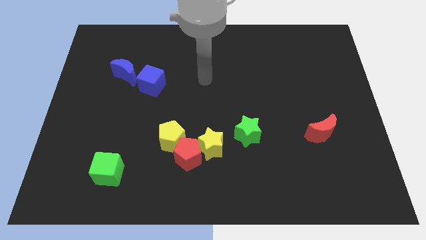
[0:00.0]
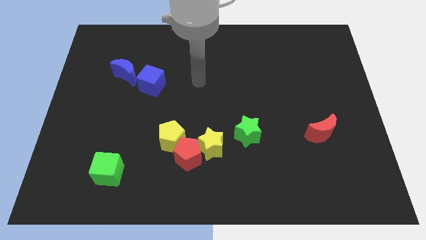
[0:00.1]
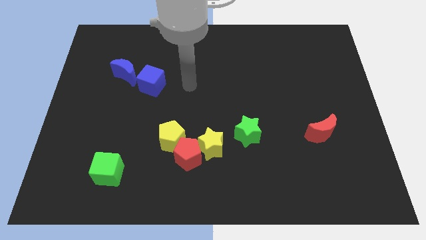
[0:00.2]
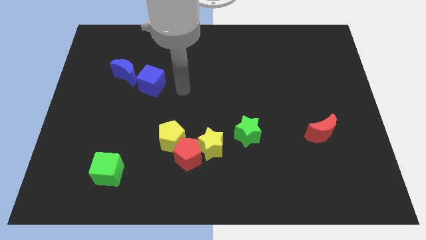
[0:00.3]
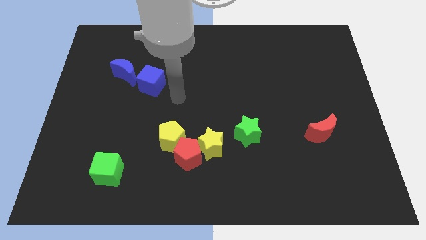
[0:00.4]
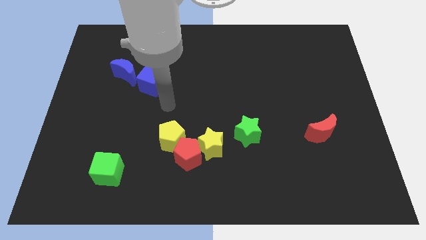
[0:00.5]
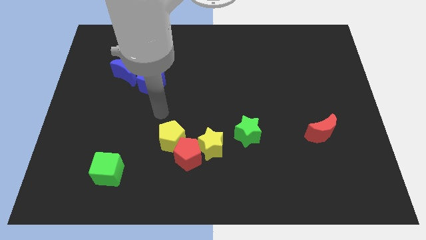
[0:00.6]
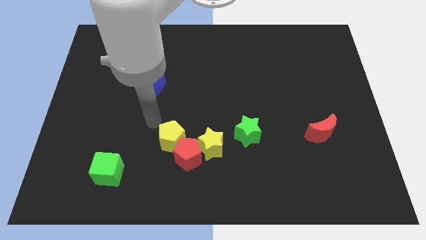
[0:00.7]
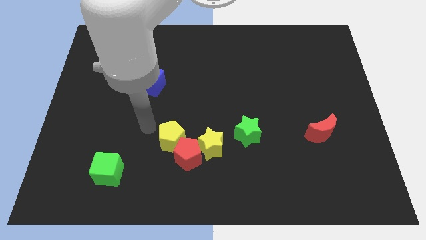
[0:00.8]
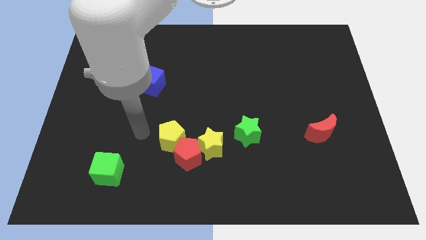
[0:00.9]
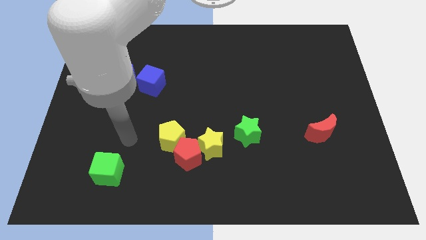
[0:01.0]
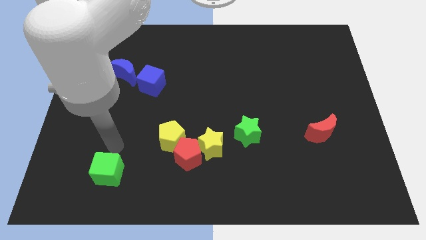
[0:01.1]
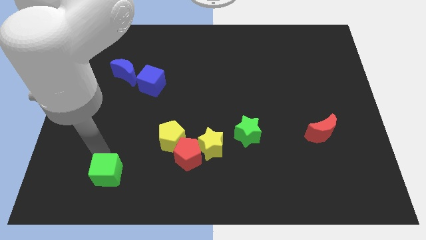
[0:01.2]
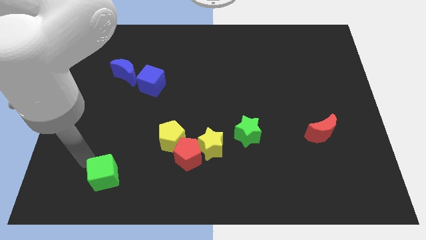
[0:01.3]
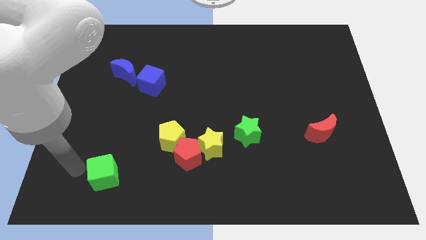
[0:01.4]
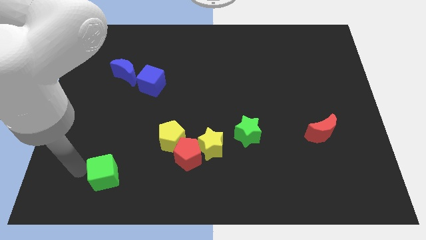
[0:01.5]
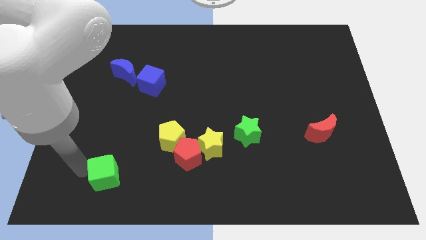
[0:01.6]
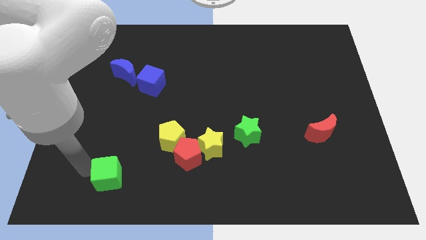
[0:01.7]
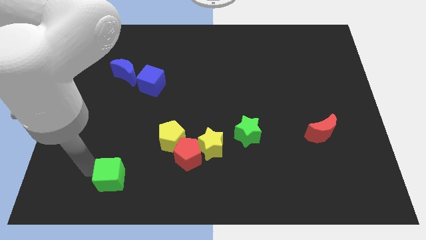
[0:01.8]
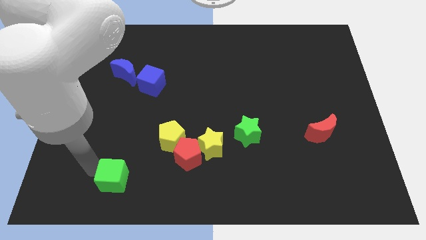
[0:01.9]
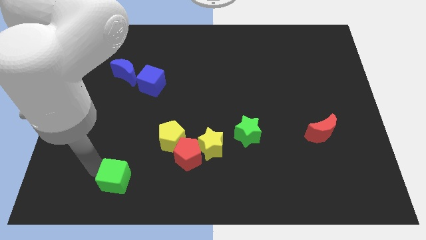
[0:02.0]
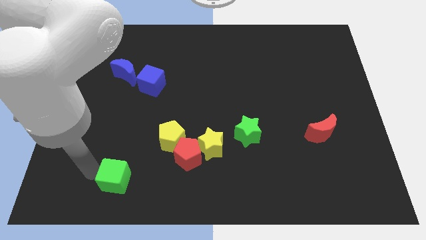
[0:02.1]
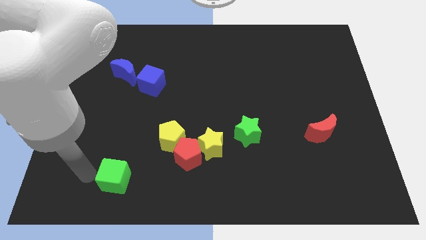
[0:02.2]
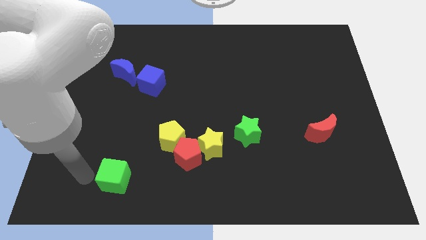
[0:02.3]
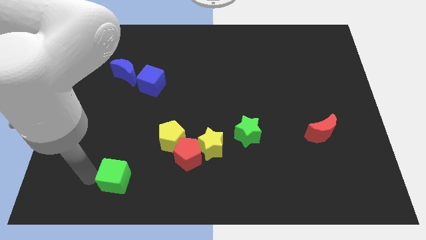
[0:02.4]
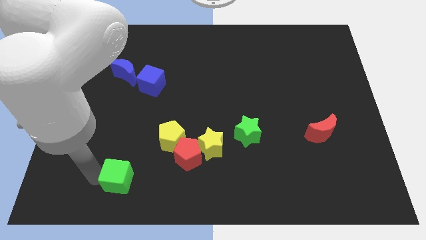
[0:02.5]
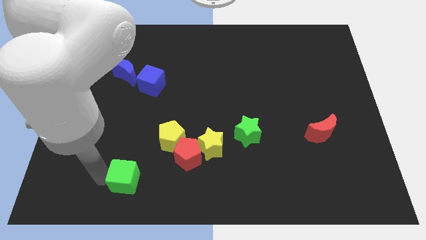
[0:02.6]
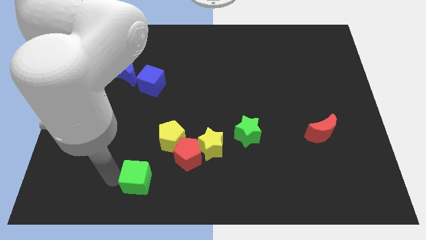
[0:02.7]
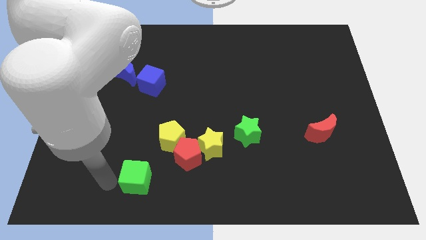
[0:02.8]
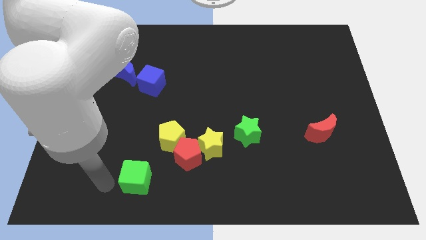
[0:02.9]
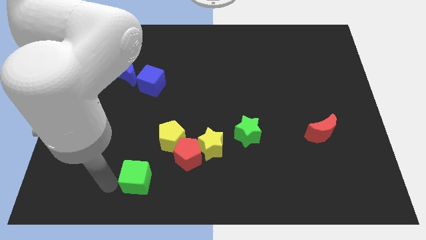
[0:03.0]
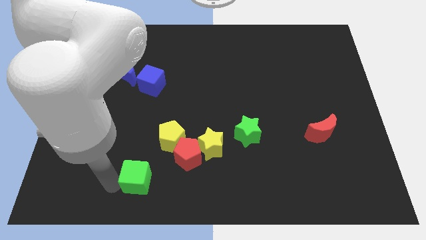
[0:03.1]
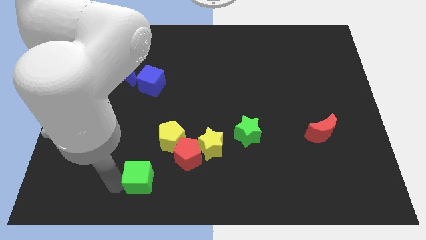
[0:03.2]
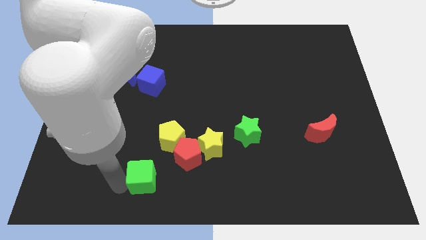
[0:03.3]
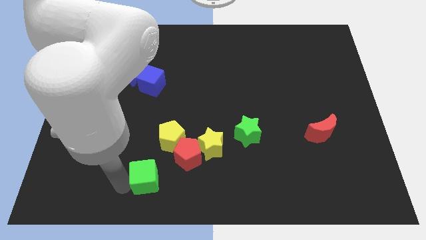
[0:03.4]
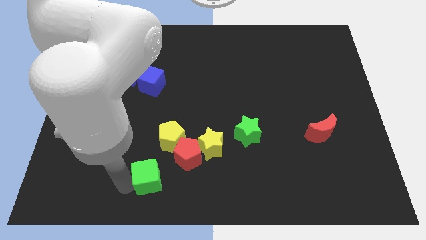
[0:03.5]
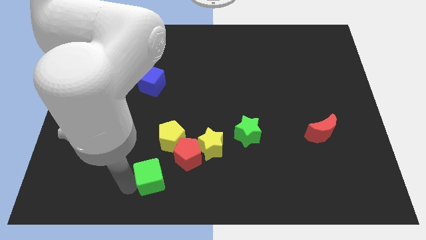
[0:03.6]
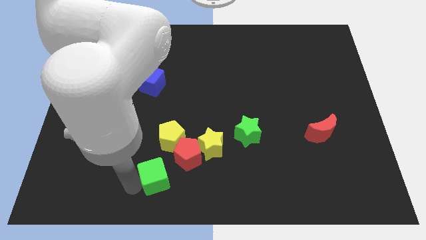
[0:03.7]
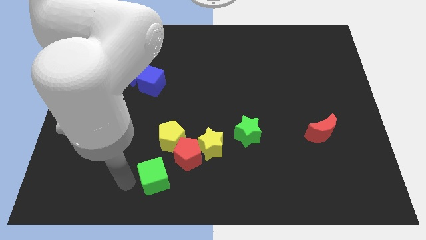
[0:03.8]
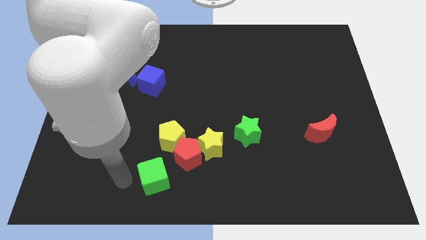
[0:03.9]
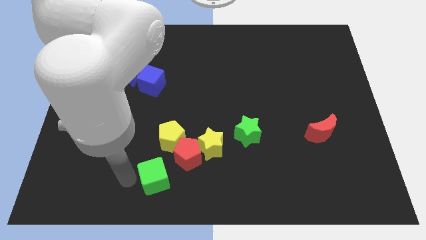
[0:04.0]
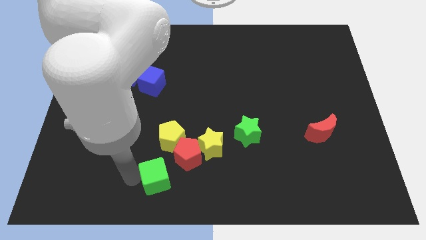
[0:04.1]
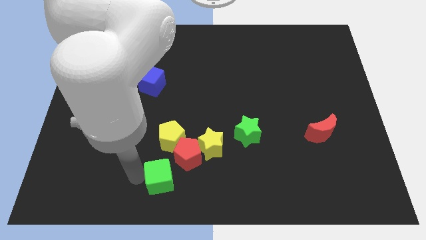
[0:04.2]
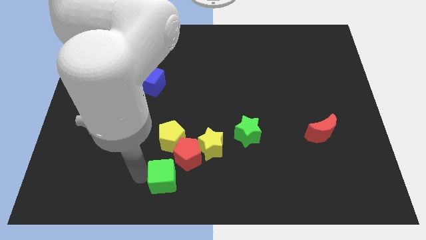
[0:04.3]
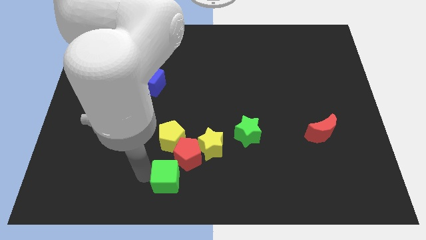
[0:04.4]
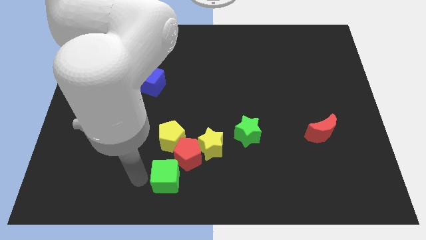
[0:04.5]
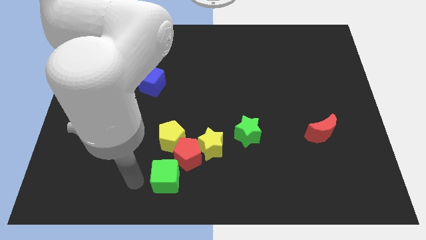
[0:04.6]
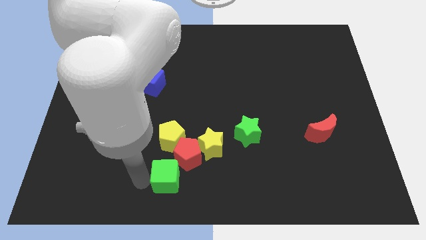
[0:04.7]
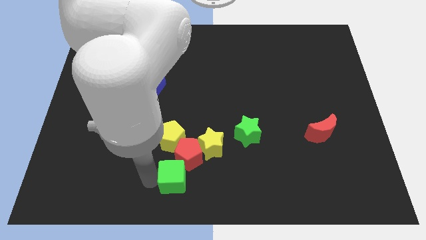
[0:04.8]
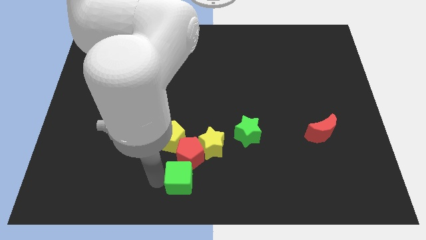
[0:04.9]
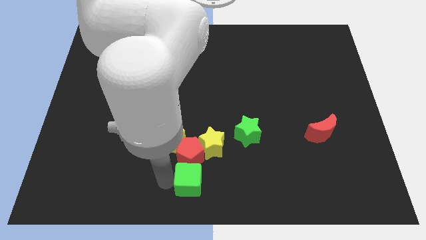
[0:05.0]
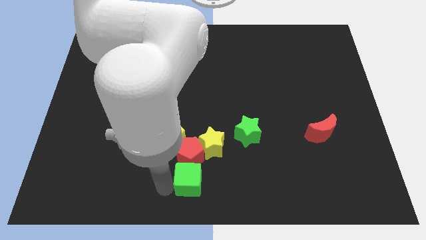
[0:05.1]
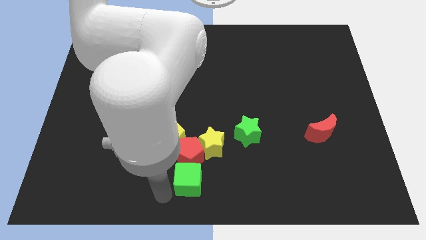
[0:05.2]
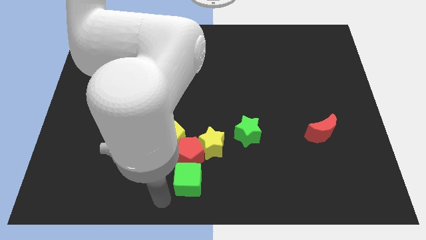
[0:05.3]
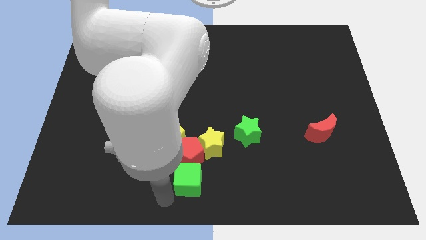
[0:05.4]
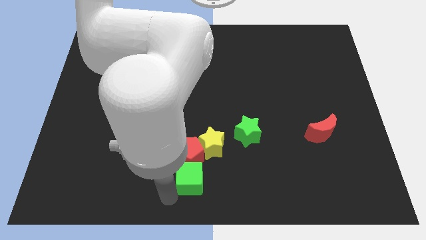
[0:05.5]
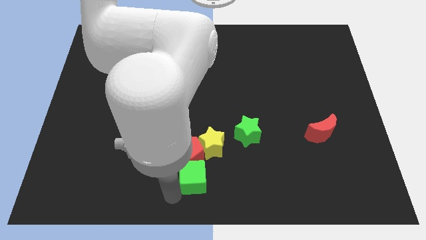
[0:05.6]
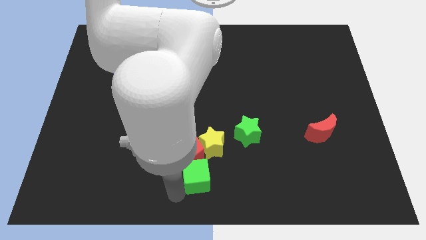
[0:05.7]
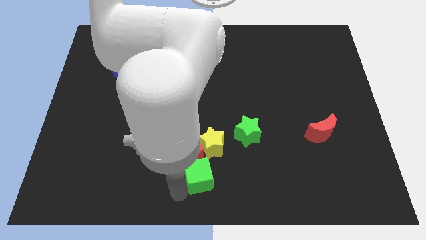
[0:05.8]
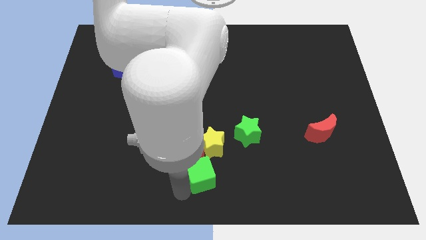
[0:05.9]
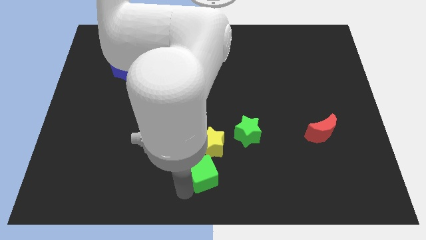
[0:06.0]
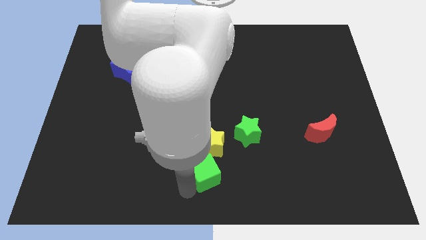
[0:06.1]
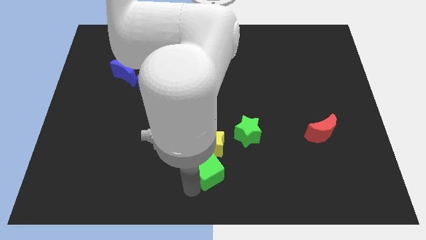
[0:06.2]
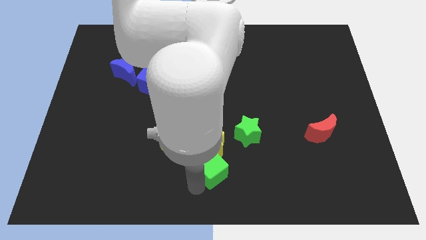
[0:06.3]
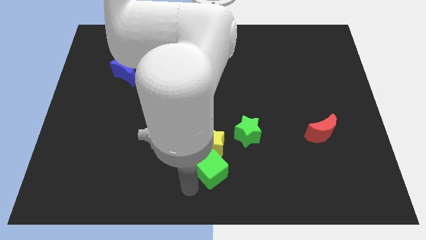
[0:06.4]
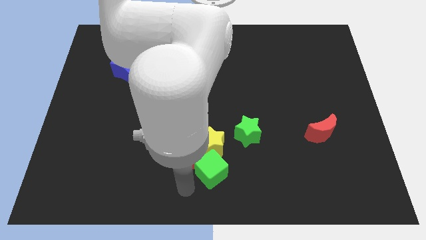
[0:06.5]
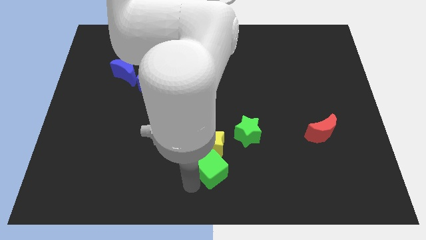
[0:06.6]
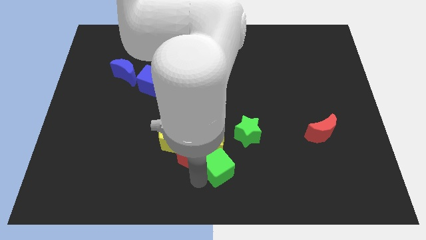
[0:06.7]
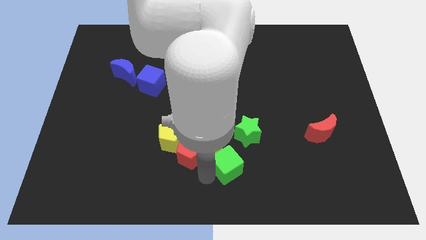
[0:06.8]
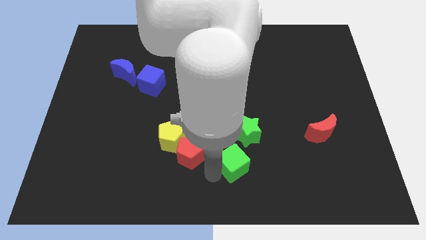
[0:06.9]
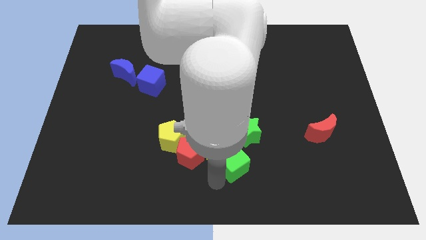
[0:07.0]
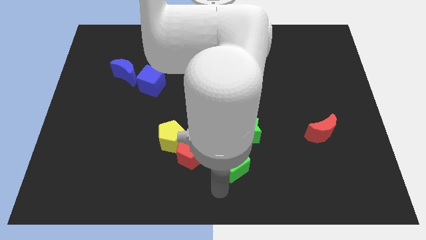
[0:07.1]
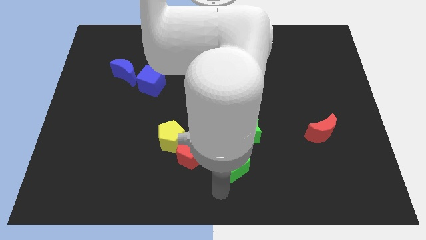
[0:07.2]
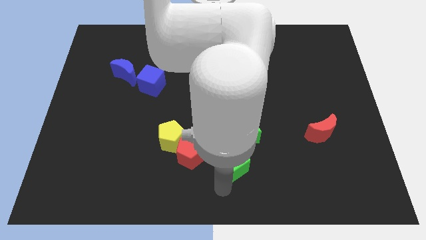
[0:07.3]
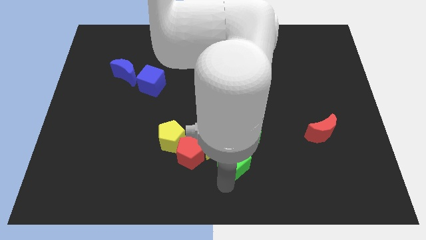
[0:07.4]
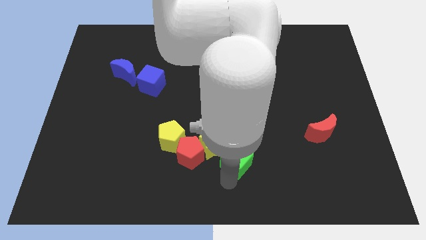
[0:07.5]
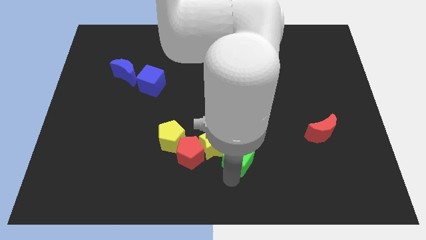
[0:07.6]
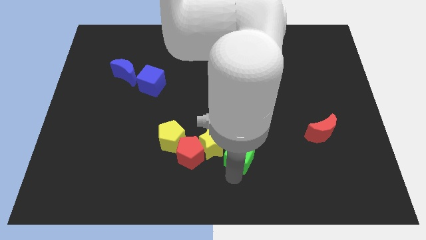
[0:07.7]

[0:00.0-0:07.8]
push the green cube to the green star

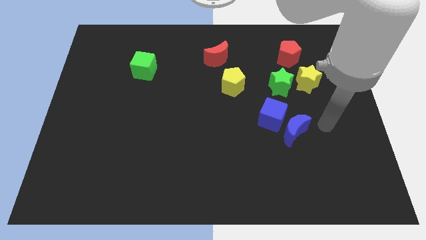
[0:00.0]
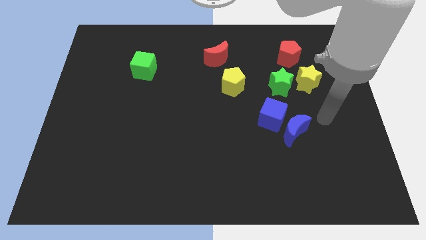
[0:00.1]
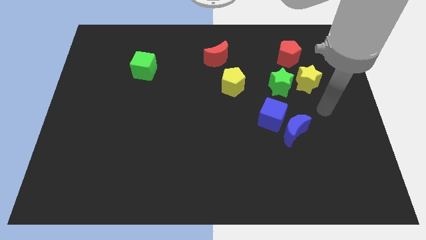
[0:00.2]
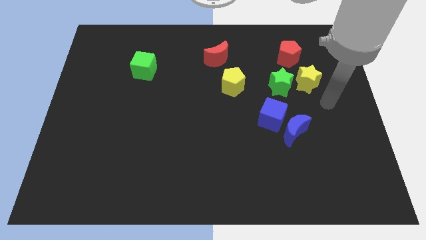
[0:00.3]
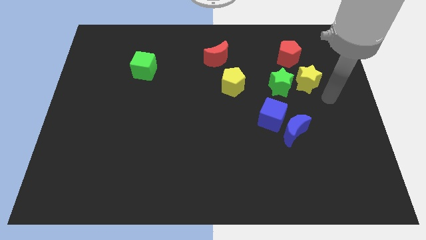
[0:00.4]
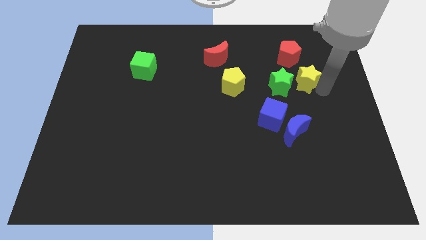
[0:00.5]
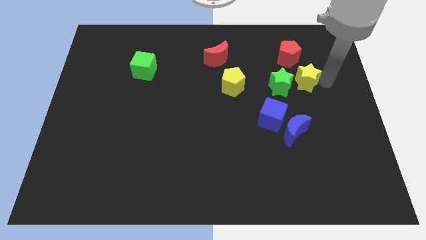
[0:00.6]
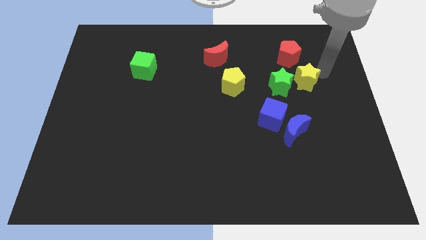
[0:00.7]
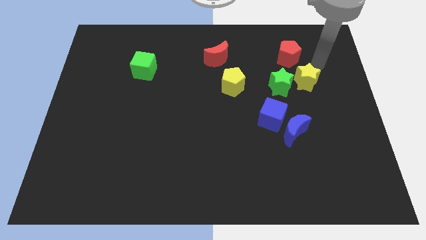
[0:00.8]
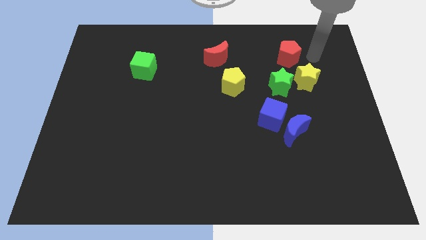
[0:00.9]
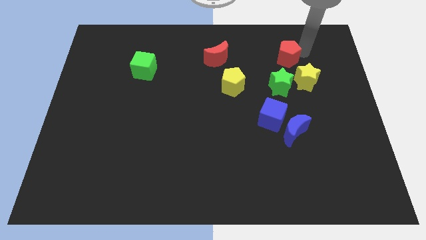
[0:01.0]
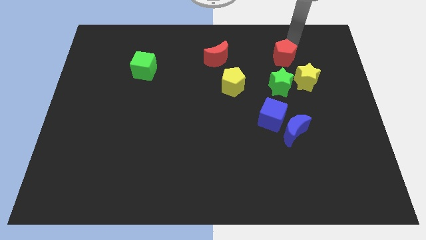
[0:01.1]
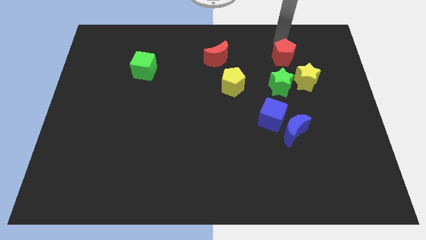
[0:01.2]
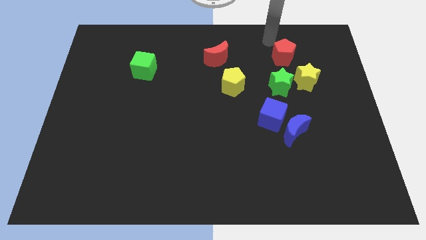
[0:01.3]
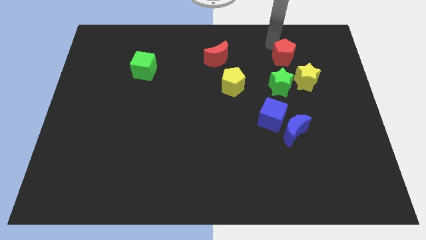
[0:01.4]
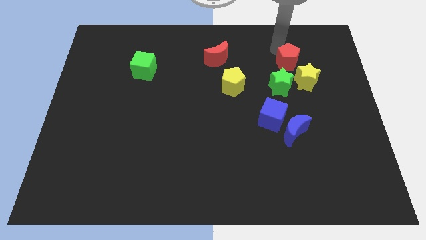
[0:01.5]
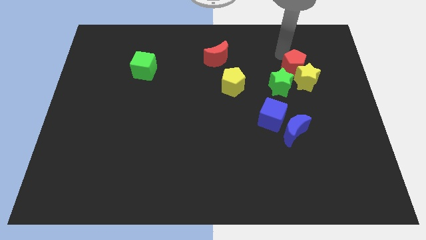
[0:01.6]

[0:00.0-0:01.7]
push the red pentagon next to the yellow star
